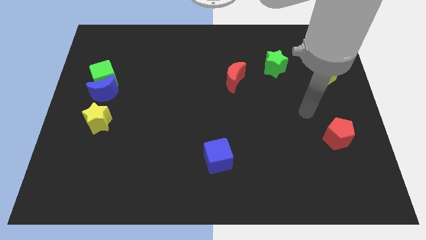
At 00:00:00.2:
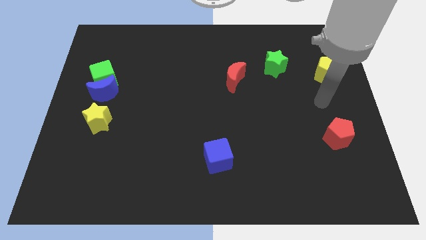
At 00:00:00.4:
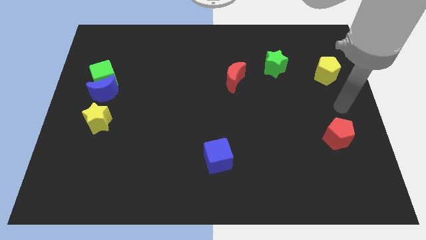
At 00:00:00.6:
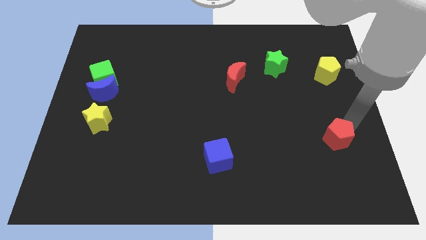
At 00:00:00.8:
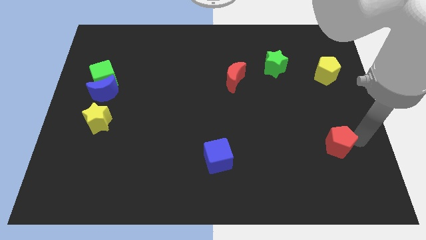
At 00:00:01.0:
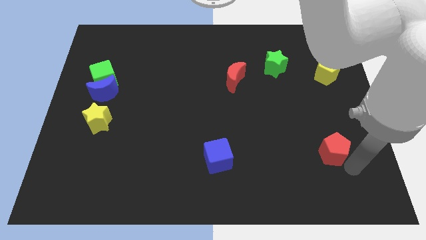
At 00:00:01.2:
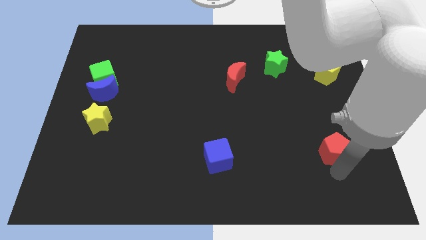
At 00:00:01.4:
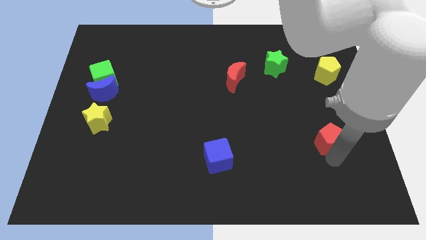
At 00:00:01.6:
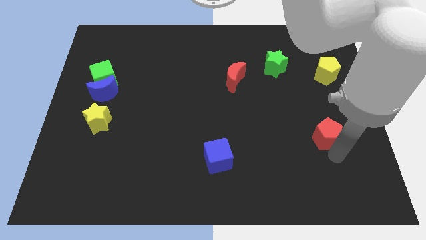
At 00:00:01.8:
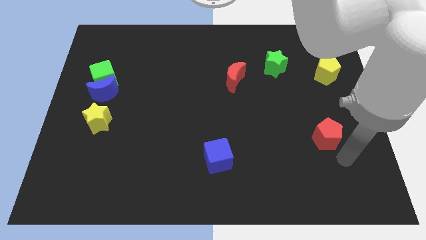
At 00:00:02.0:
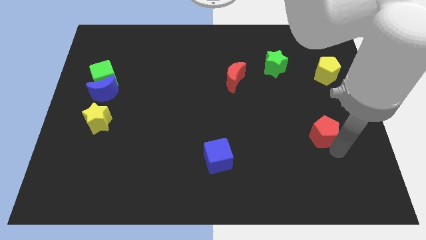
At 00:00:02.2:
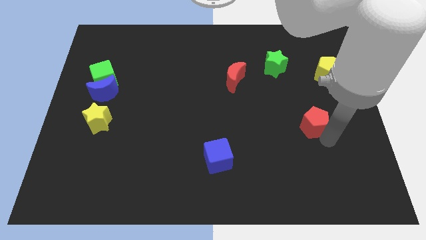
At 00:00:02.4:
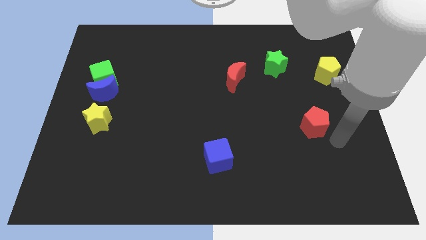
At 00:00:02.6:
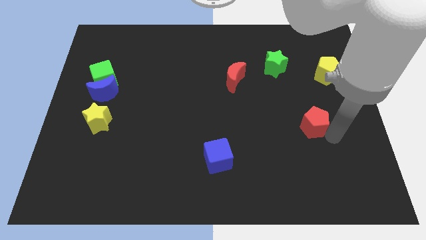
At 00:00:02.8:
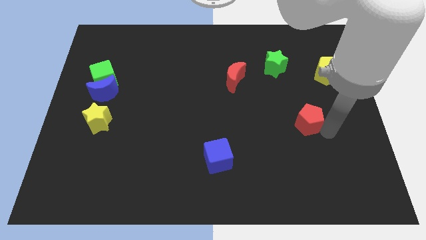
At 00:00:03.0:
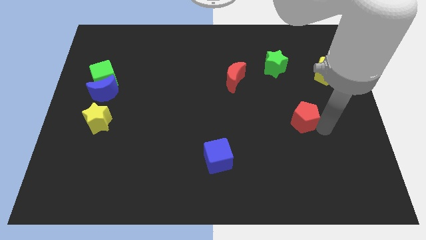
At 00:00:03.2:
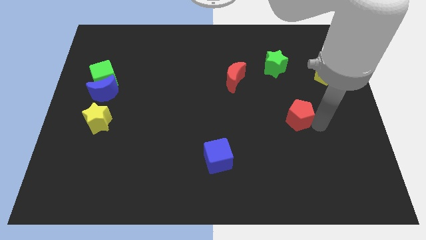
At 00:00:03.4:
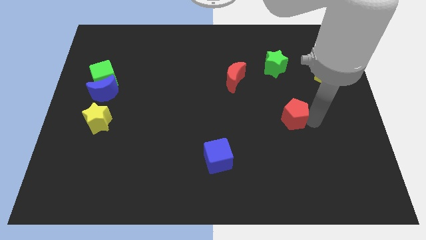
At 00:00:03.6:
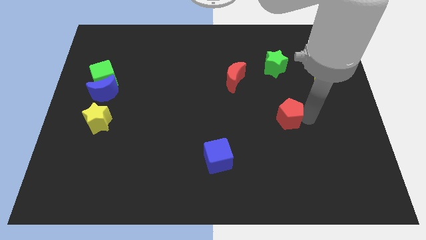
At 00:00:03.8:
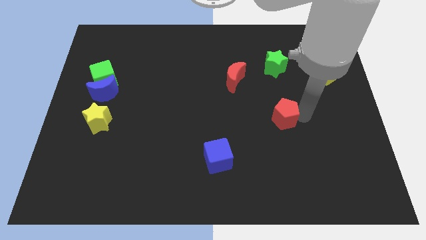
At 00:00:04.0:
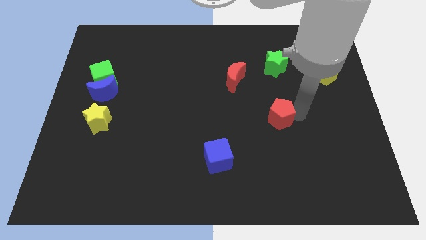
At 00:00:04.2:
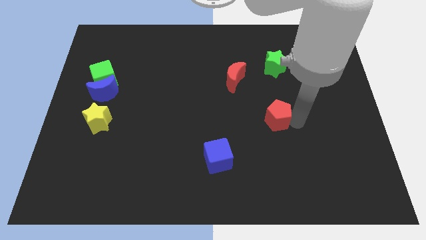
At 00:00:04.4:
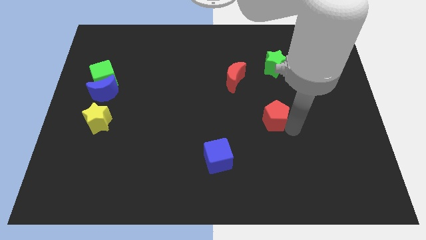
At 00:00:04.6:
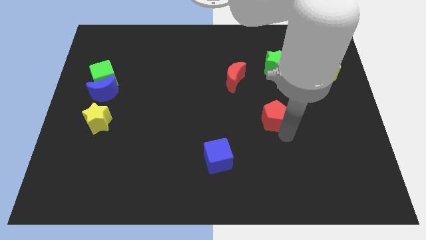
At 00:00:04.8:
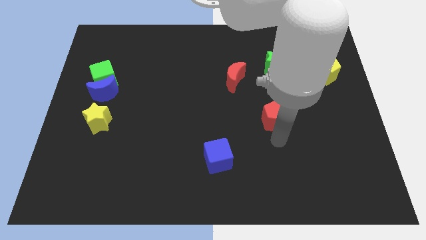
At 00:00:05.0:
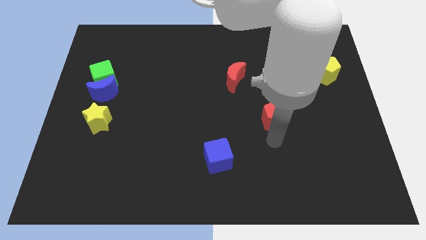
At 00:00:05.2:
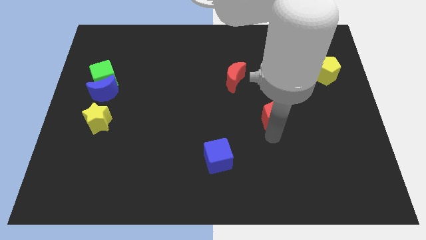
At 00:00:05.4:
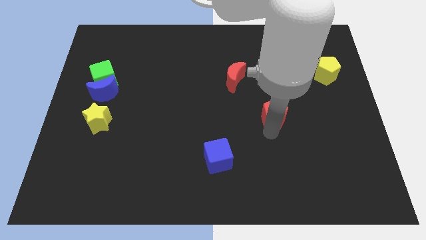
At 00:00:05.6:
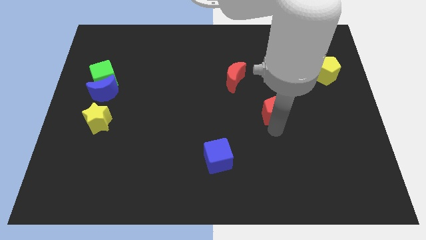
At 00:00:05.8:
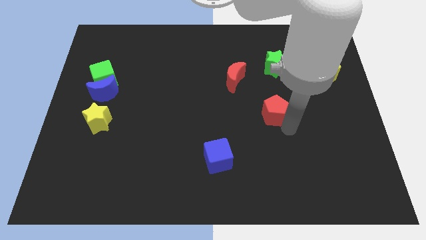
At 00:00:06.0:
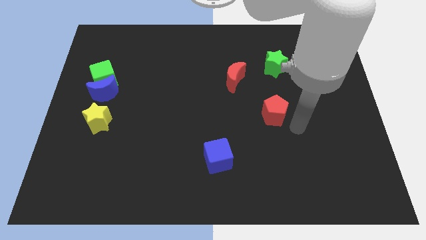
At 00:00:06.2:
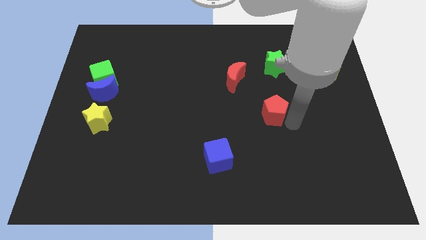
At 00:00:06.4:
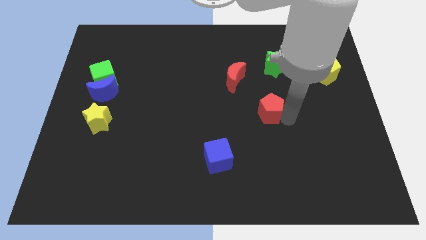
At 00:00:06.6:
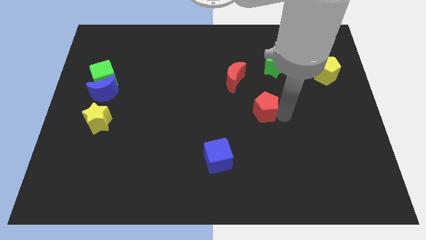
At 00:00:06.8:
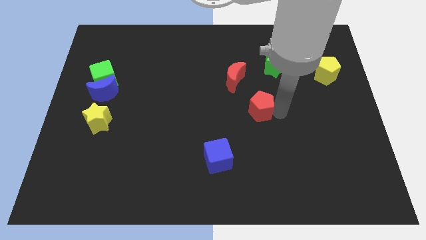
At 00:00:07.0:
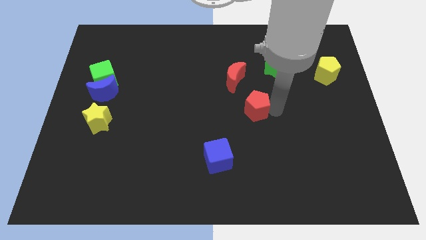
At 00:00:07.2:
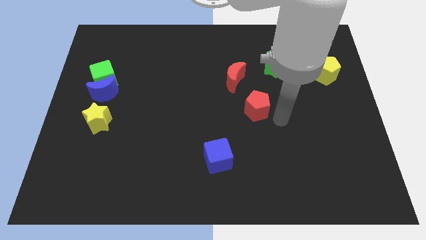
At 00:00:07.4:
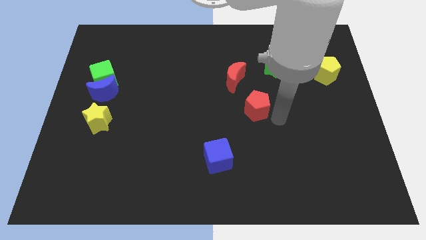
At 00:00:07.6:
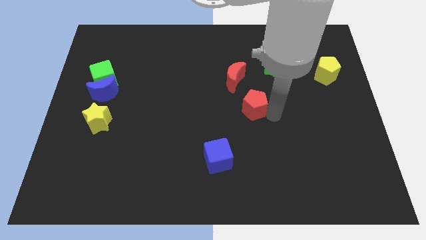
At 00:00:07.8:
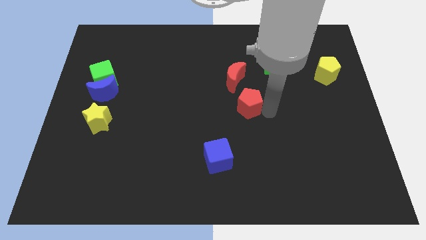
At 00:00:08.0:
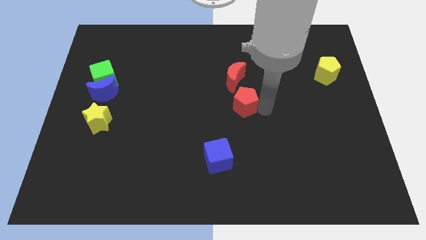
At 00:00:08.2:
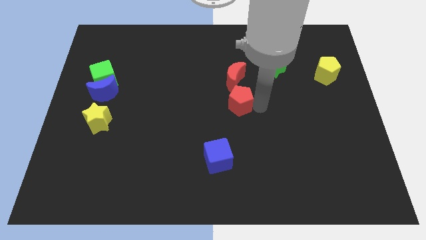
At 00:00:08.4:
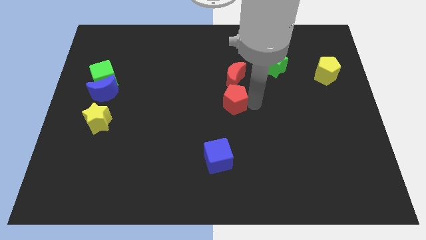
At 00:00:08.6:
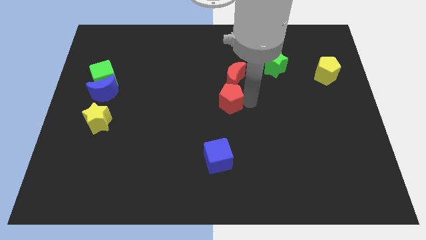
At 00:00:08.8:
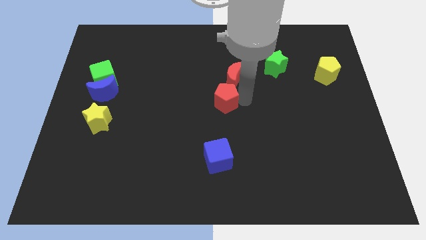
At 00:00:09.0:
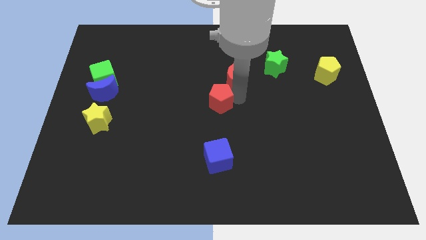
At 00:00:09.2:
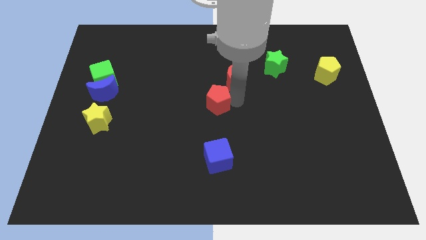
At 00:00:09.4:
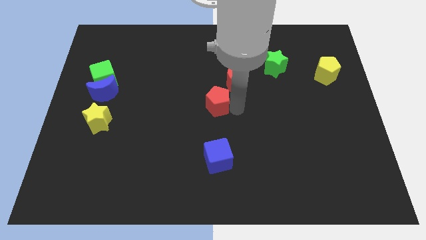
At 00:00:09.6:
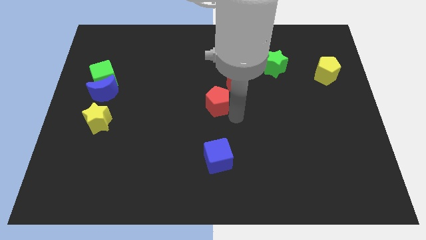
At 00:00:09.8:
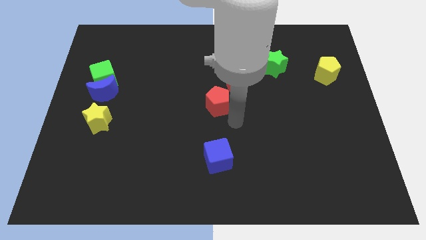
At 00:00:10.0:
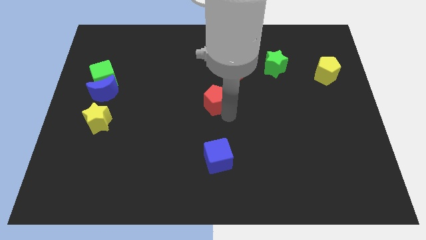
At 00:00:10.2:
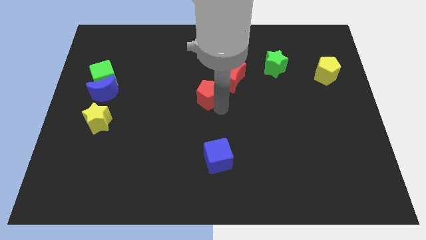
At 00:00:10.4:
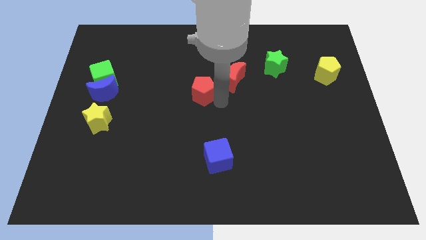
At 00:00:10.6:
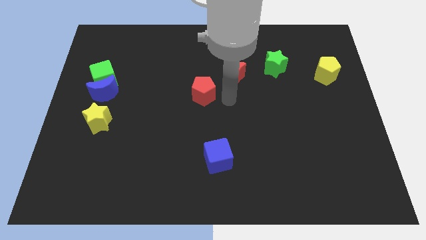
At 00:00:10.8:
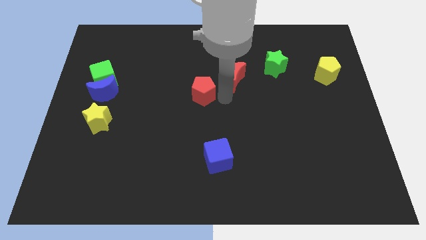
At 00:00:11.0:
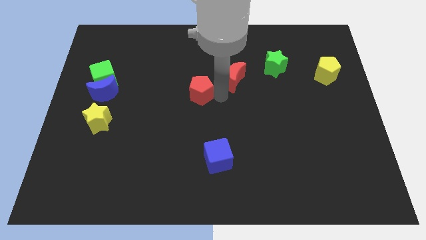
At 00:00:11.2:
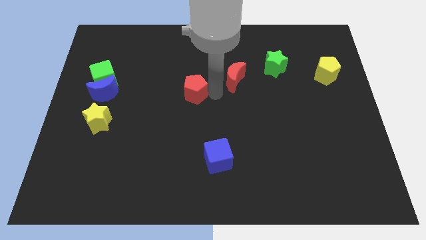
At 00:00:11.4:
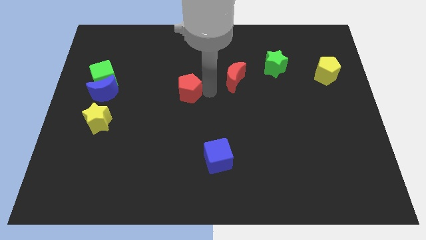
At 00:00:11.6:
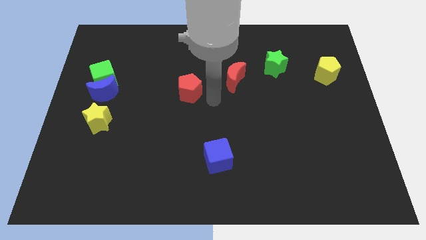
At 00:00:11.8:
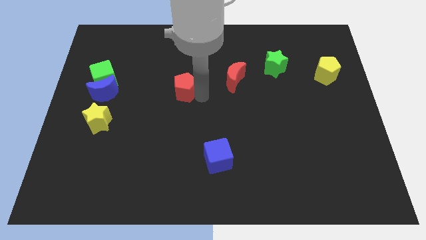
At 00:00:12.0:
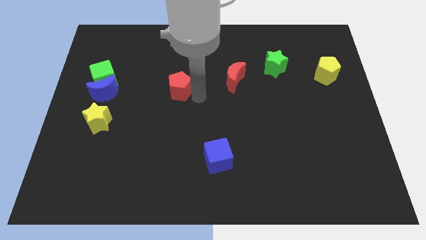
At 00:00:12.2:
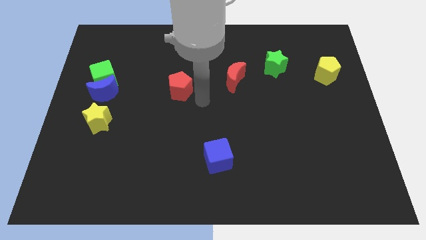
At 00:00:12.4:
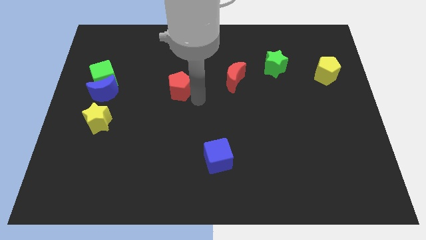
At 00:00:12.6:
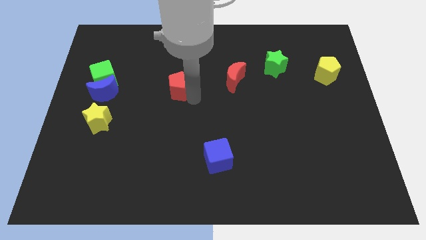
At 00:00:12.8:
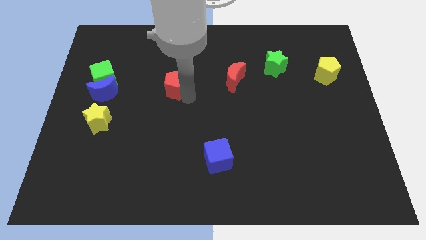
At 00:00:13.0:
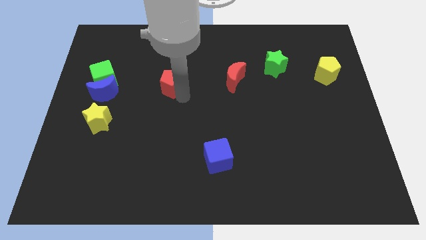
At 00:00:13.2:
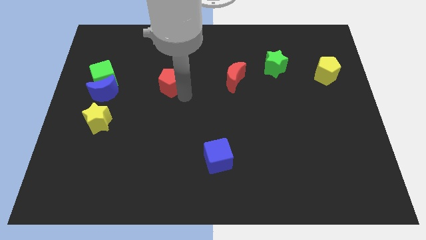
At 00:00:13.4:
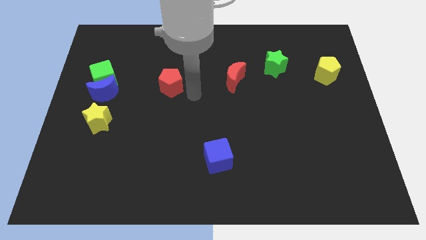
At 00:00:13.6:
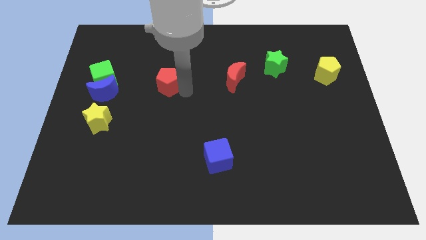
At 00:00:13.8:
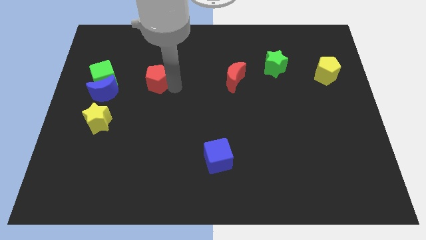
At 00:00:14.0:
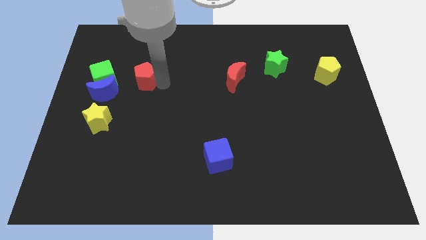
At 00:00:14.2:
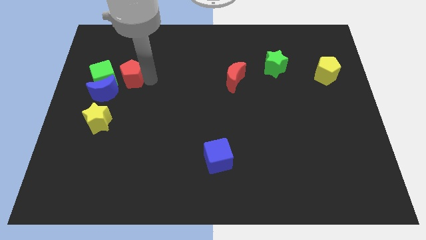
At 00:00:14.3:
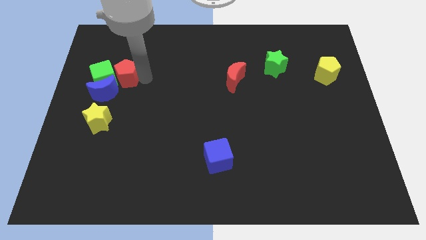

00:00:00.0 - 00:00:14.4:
move the red pentagon towards the green cube

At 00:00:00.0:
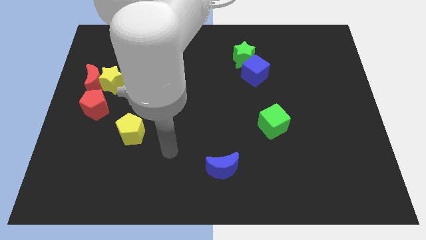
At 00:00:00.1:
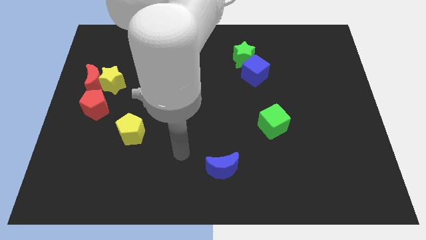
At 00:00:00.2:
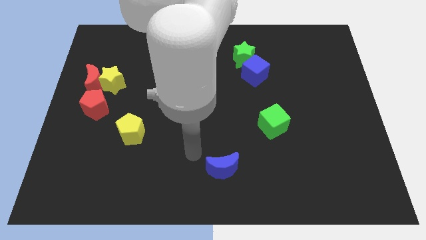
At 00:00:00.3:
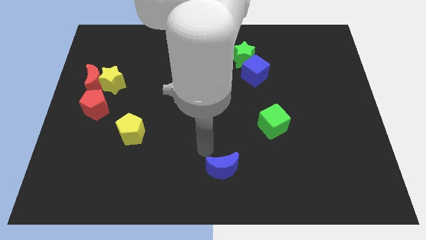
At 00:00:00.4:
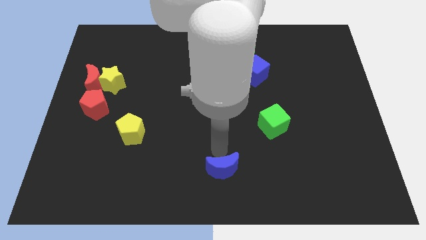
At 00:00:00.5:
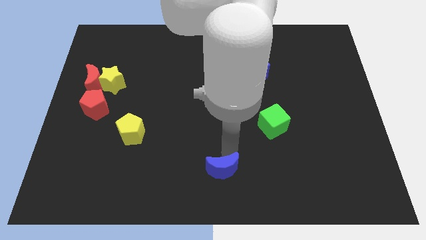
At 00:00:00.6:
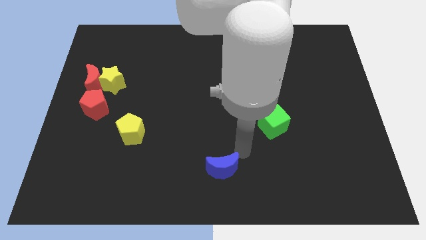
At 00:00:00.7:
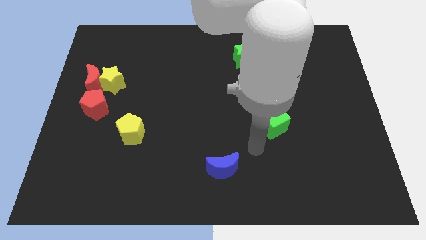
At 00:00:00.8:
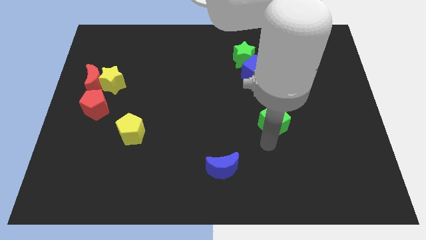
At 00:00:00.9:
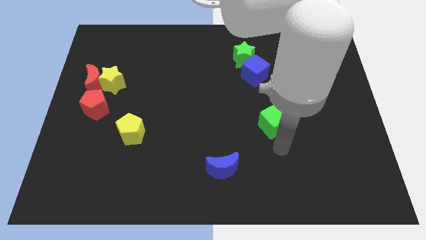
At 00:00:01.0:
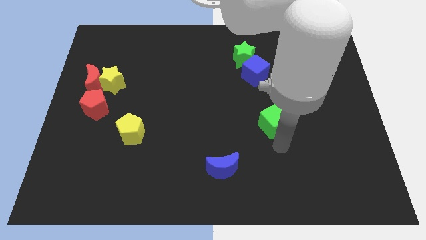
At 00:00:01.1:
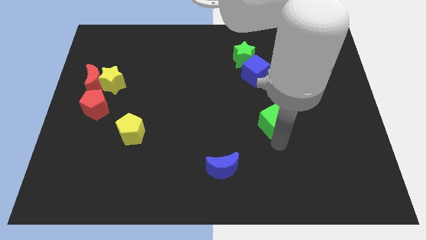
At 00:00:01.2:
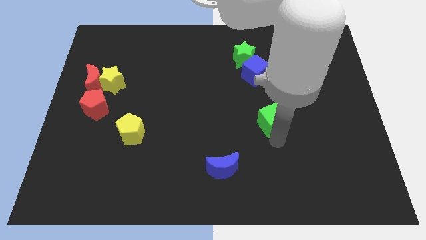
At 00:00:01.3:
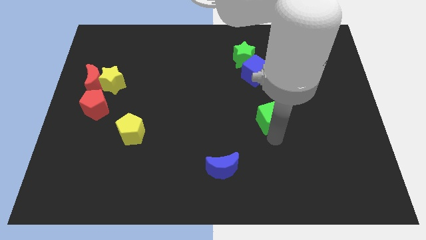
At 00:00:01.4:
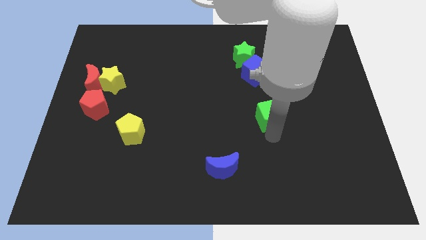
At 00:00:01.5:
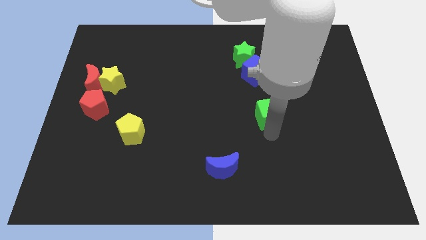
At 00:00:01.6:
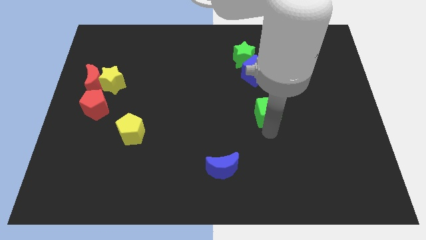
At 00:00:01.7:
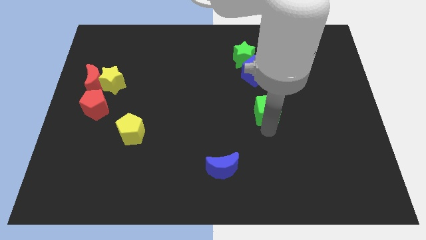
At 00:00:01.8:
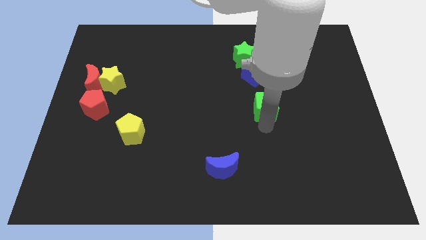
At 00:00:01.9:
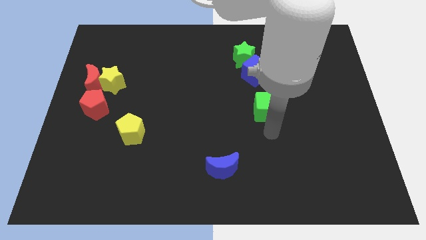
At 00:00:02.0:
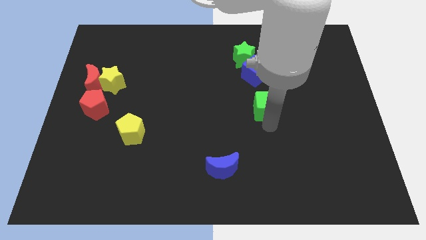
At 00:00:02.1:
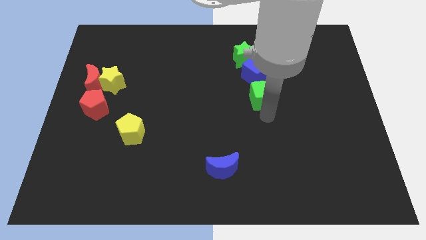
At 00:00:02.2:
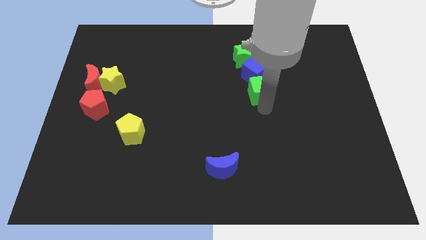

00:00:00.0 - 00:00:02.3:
put the green cube close to the blue cube
